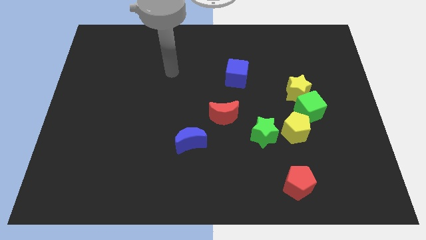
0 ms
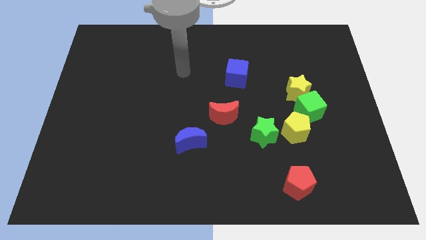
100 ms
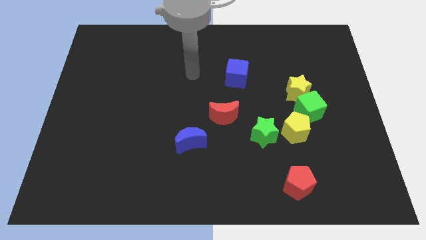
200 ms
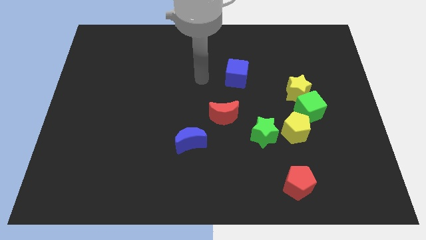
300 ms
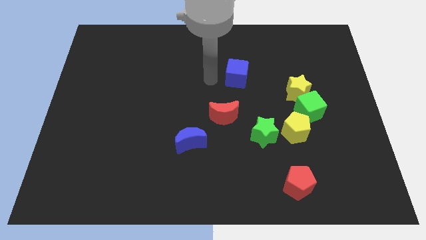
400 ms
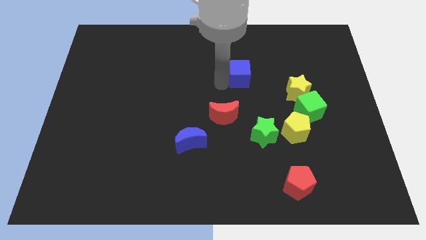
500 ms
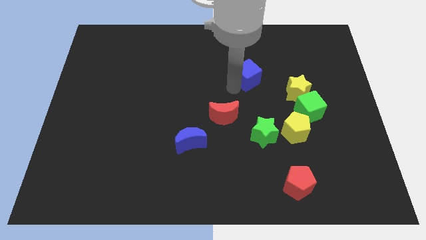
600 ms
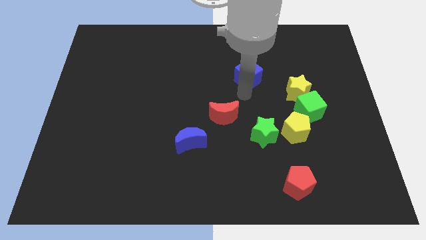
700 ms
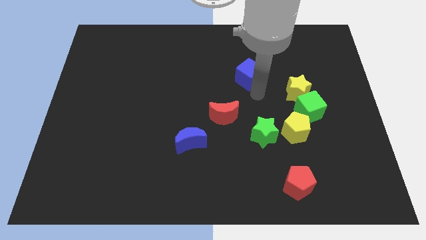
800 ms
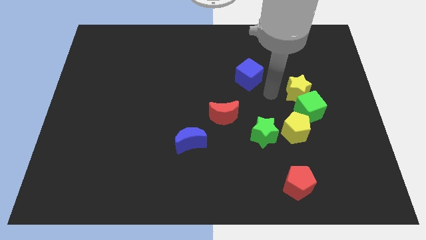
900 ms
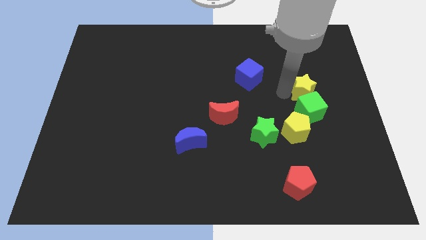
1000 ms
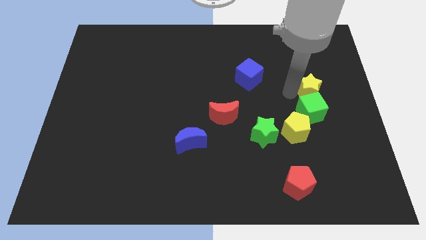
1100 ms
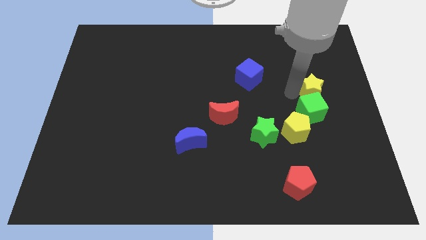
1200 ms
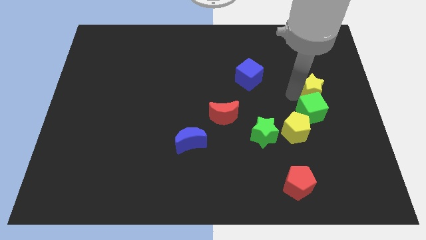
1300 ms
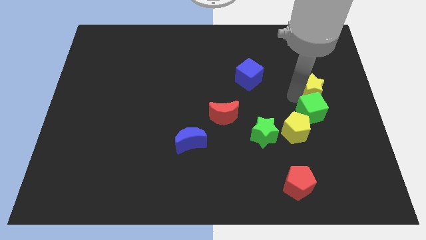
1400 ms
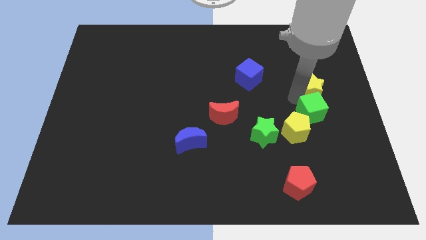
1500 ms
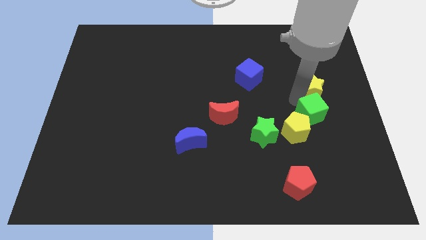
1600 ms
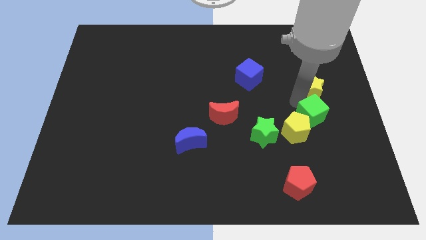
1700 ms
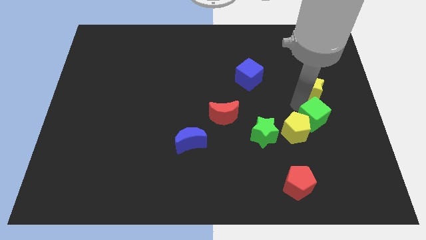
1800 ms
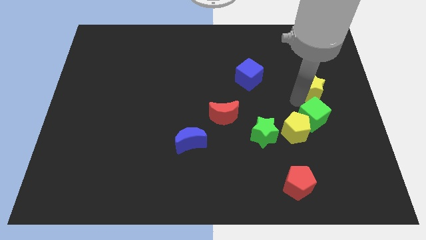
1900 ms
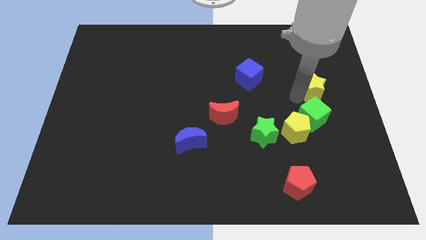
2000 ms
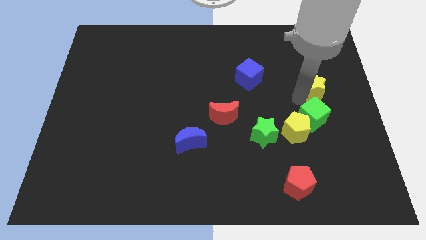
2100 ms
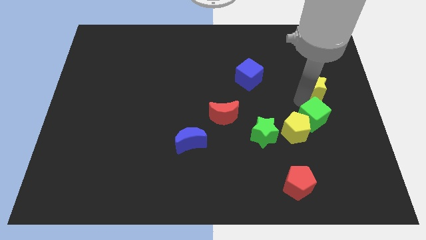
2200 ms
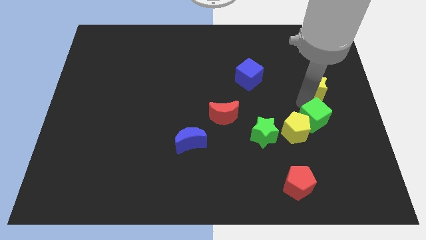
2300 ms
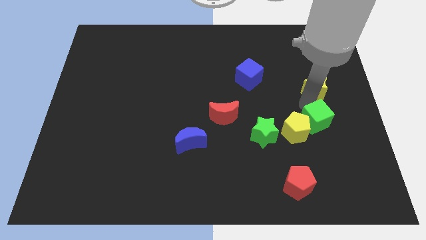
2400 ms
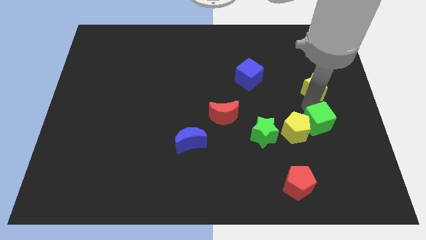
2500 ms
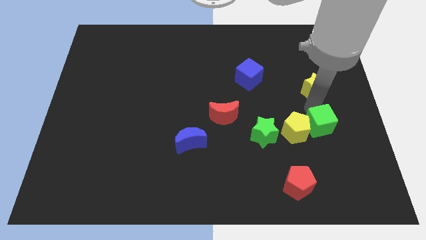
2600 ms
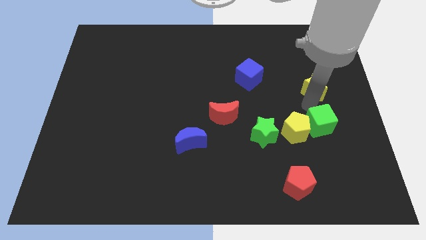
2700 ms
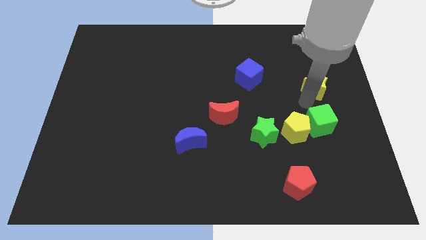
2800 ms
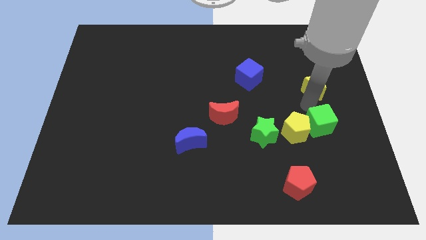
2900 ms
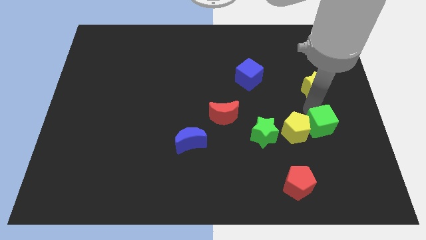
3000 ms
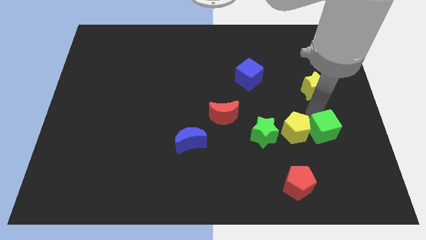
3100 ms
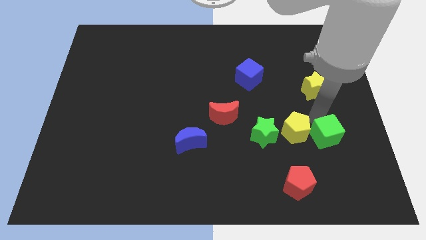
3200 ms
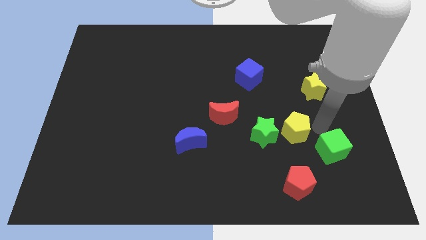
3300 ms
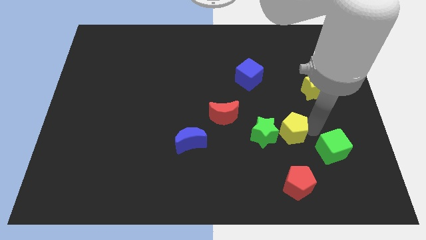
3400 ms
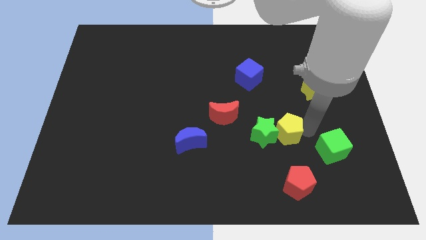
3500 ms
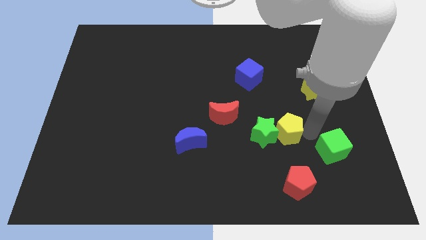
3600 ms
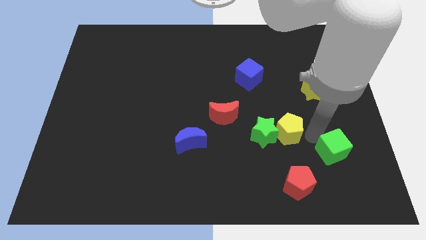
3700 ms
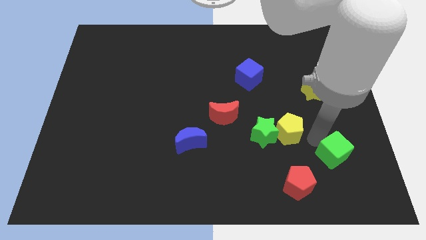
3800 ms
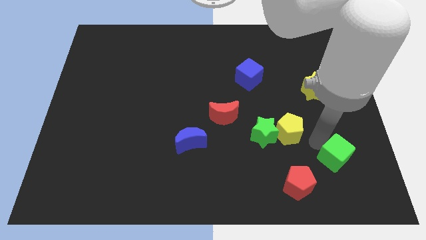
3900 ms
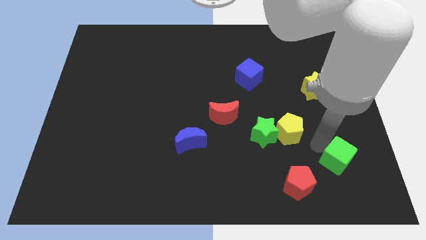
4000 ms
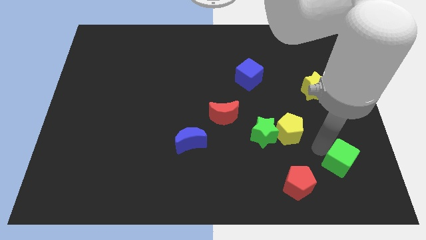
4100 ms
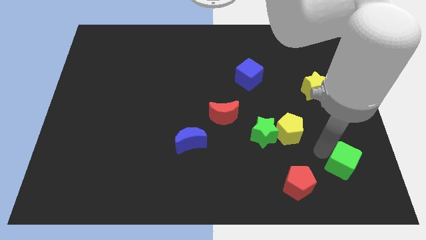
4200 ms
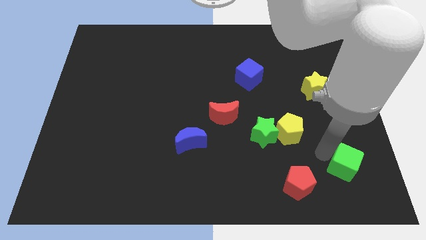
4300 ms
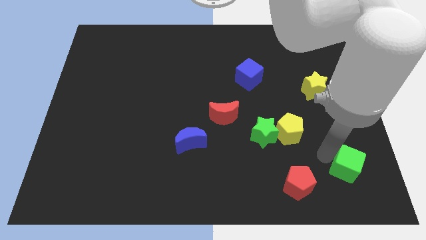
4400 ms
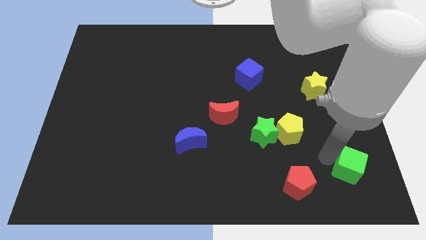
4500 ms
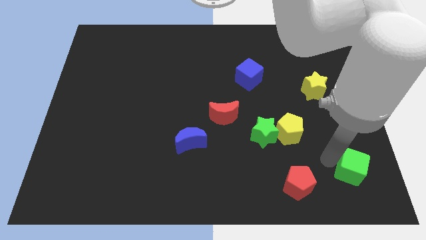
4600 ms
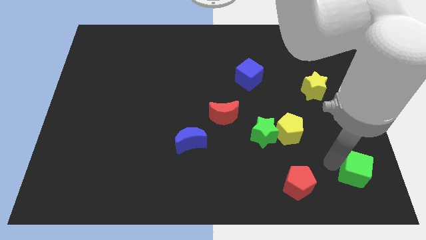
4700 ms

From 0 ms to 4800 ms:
push the green cube to the bottom right

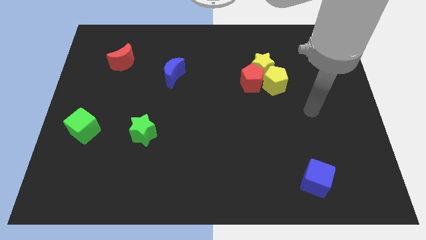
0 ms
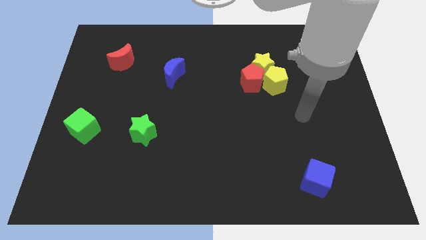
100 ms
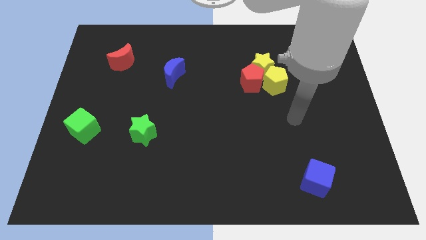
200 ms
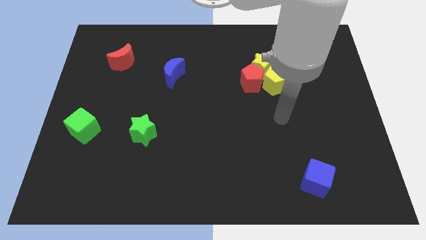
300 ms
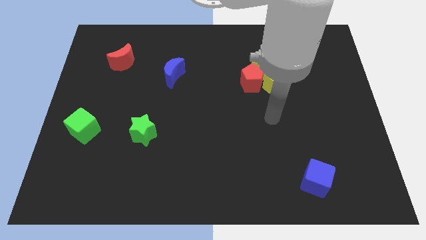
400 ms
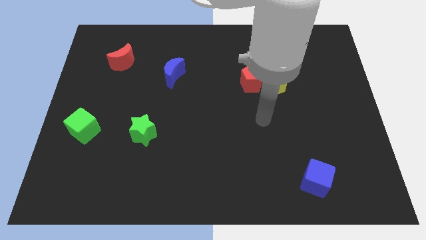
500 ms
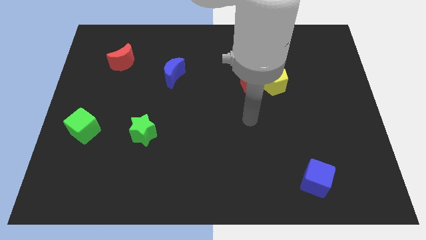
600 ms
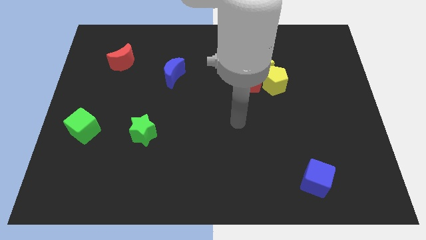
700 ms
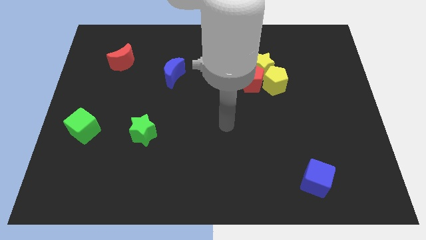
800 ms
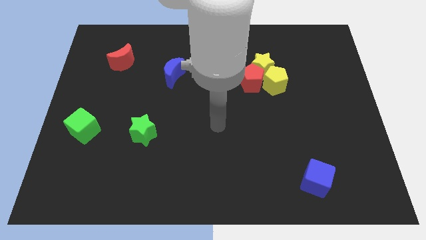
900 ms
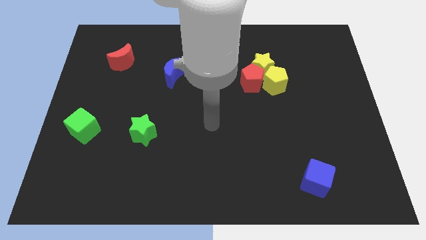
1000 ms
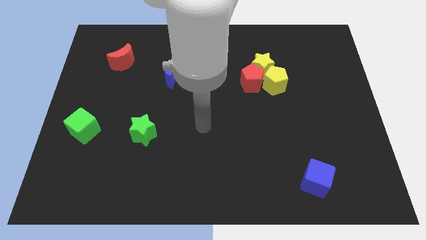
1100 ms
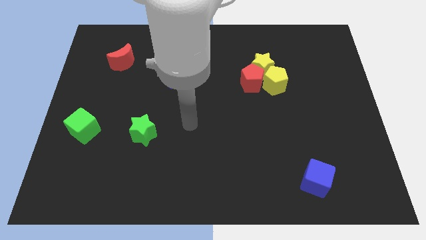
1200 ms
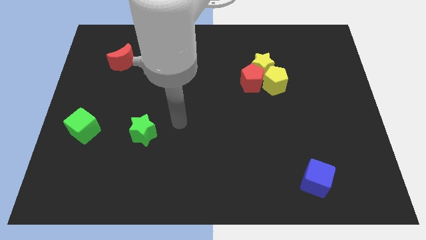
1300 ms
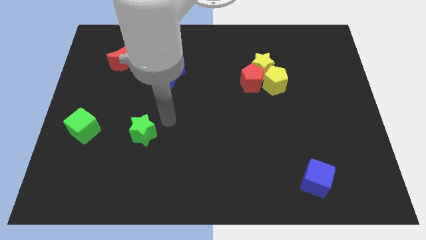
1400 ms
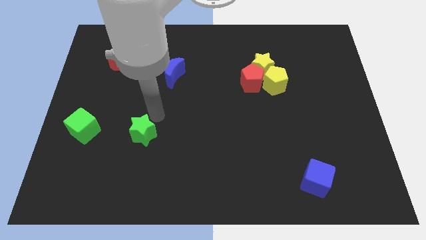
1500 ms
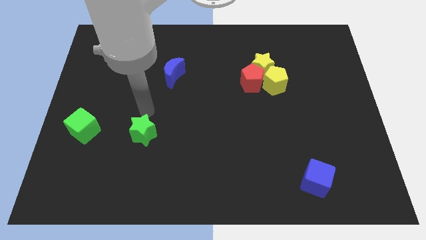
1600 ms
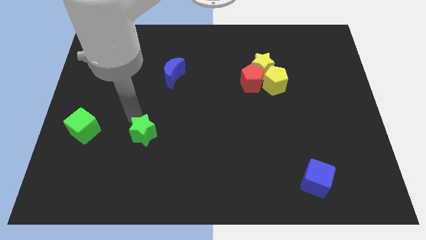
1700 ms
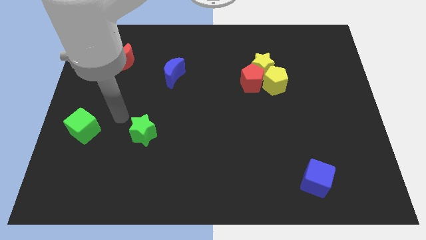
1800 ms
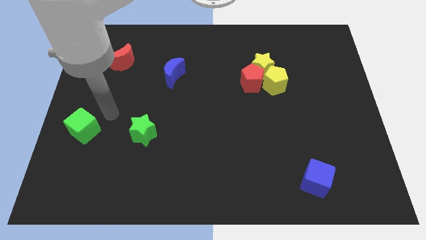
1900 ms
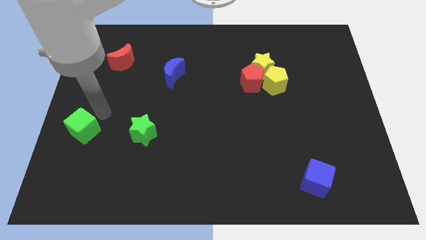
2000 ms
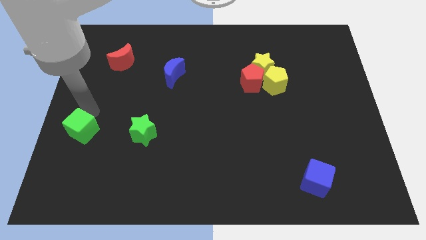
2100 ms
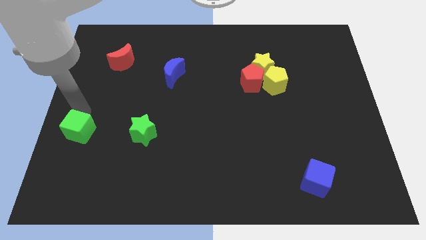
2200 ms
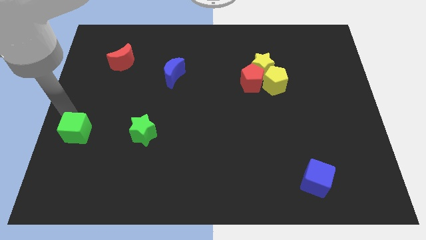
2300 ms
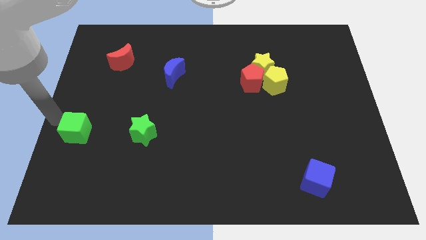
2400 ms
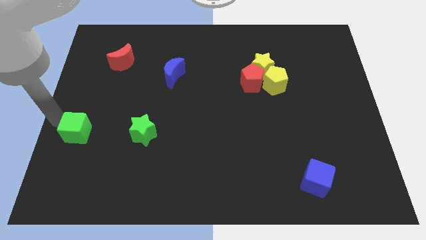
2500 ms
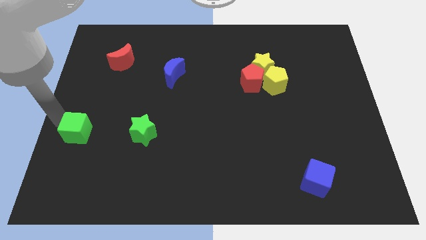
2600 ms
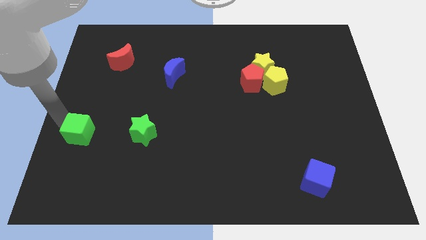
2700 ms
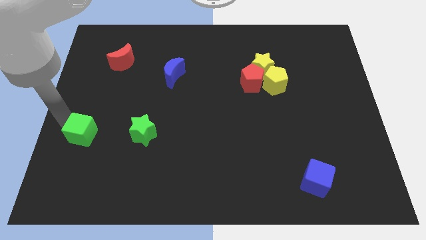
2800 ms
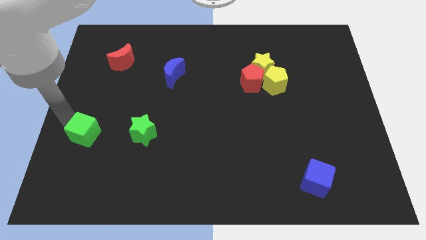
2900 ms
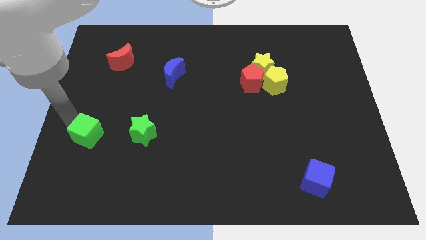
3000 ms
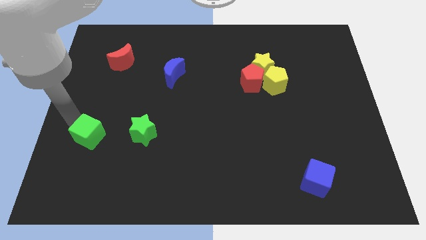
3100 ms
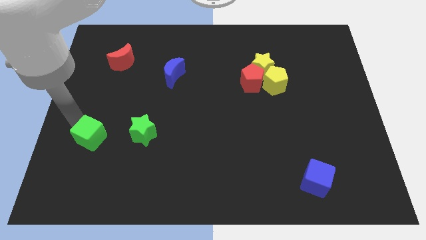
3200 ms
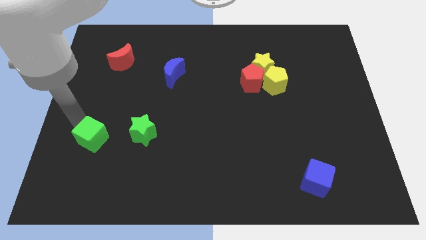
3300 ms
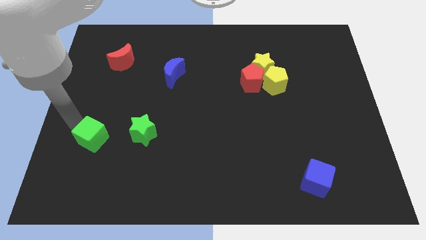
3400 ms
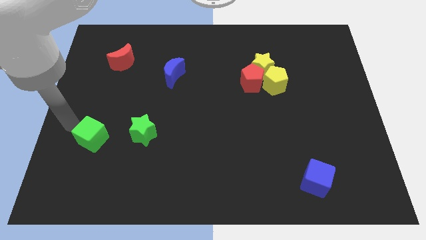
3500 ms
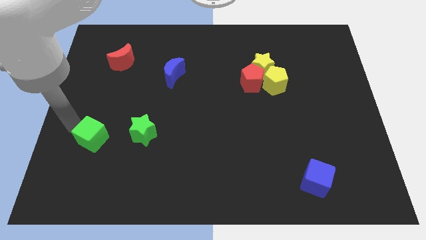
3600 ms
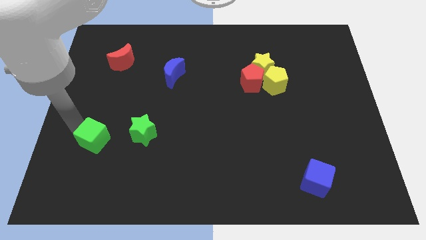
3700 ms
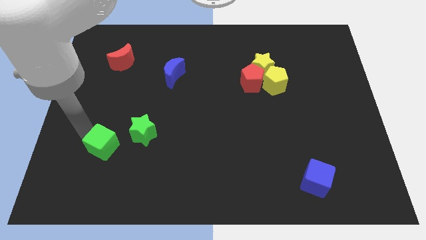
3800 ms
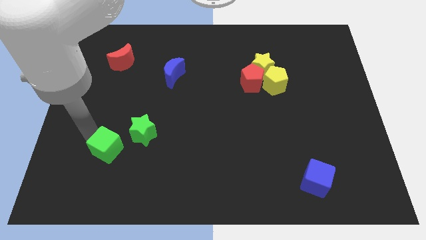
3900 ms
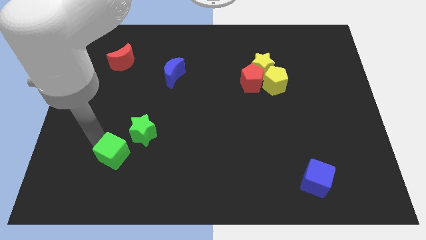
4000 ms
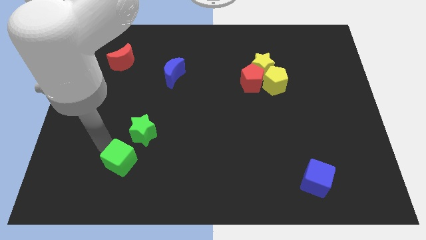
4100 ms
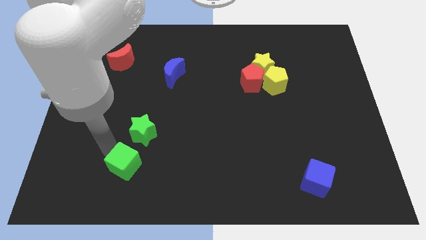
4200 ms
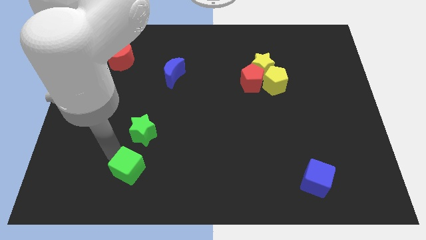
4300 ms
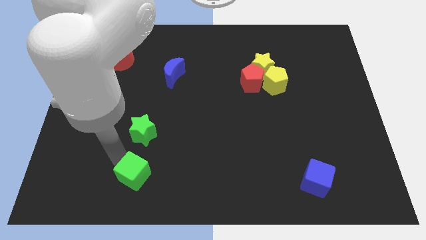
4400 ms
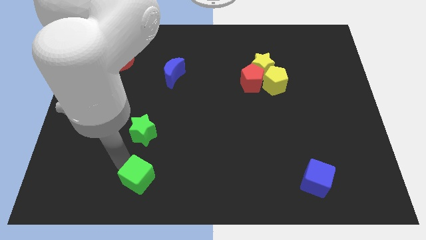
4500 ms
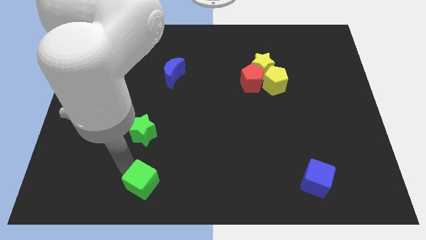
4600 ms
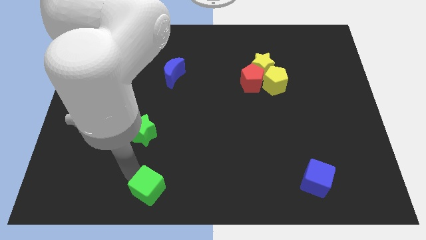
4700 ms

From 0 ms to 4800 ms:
push the green cube to the bottom side
